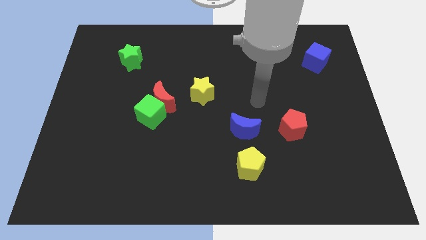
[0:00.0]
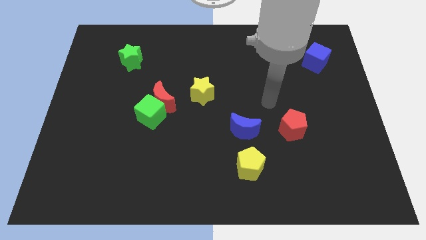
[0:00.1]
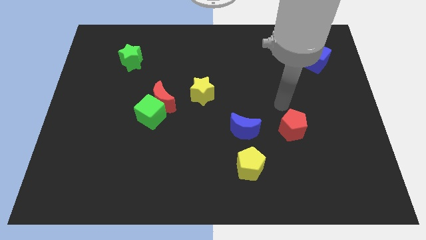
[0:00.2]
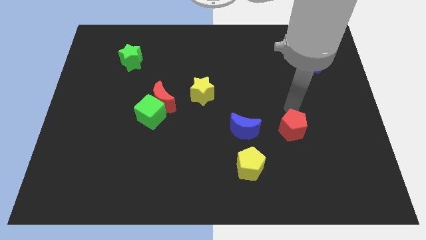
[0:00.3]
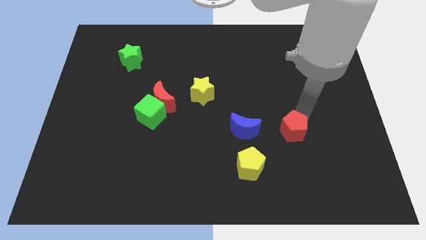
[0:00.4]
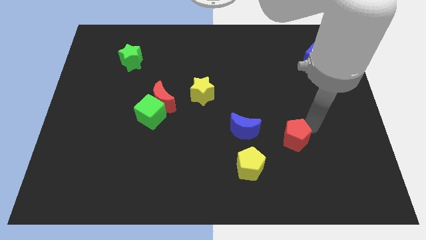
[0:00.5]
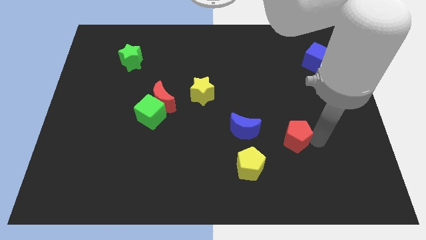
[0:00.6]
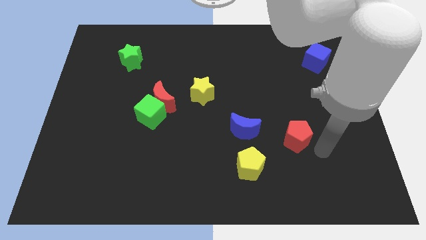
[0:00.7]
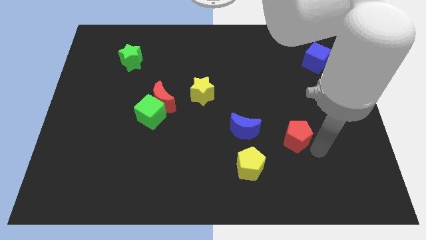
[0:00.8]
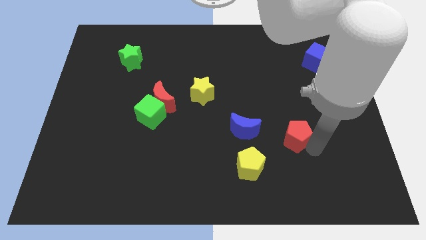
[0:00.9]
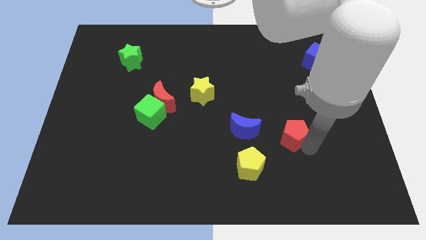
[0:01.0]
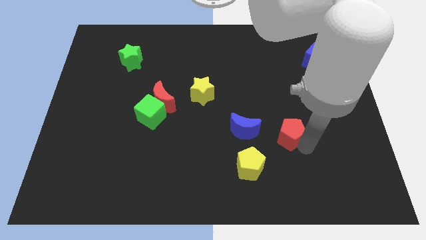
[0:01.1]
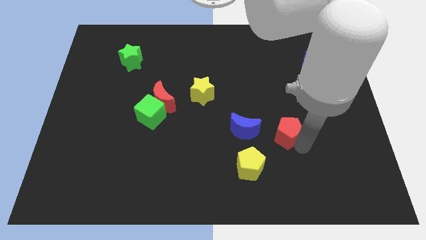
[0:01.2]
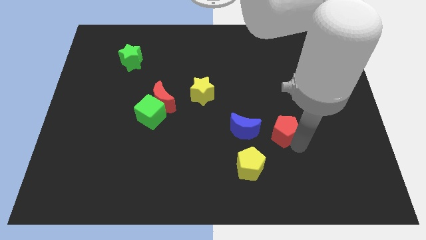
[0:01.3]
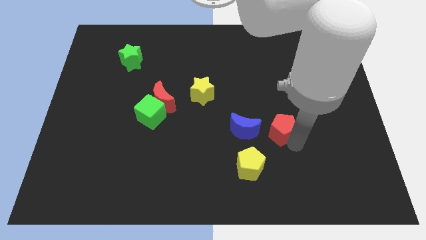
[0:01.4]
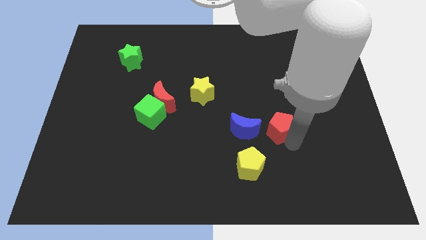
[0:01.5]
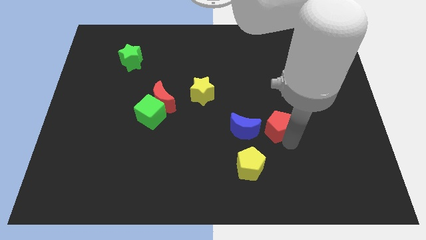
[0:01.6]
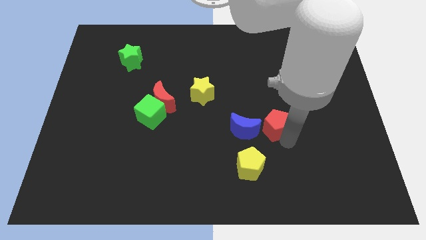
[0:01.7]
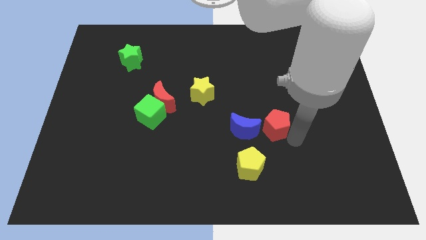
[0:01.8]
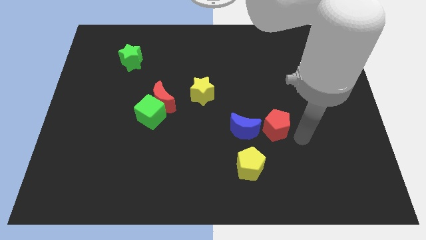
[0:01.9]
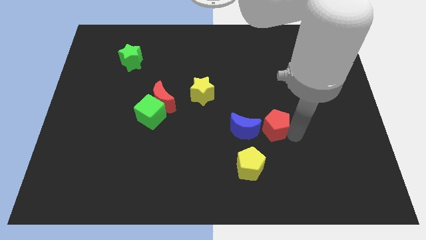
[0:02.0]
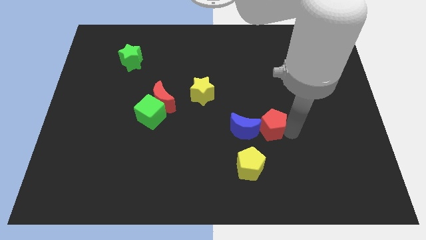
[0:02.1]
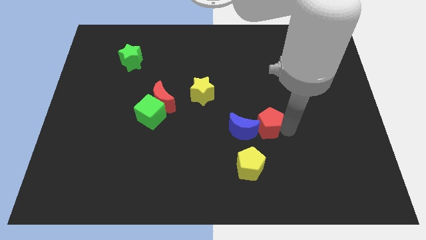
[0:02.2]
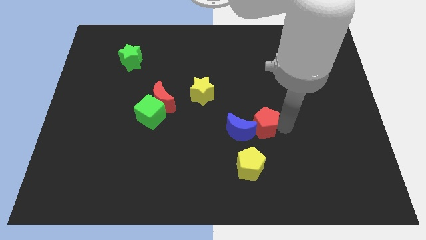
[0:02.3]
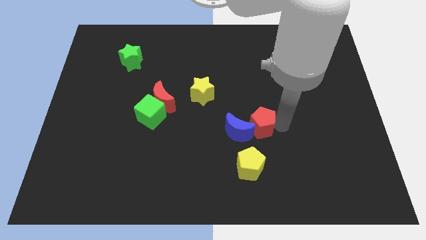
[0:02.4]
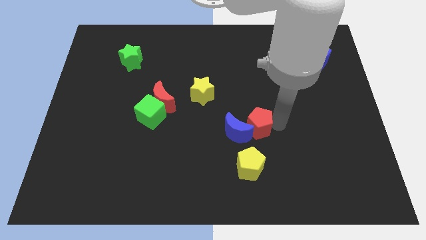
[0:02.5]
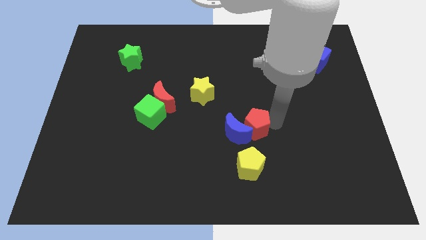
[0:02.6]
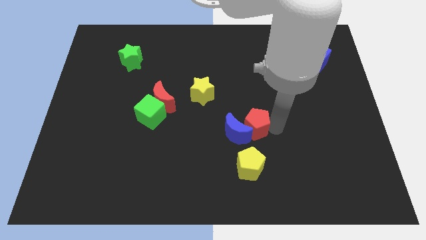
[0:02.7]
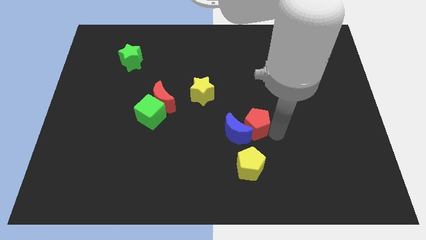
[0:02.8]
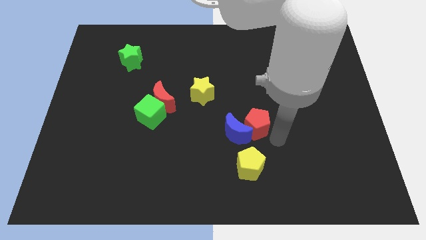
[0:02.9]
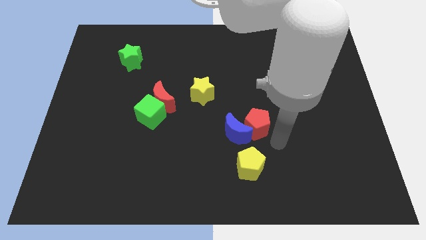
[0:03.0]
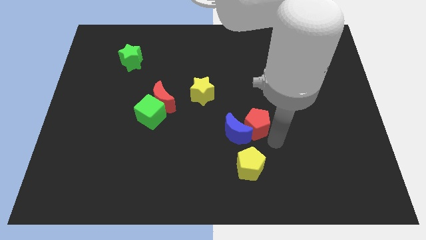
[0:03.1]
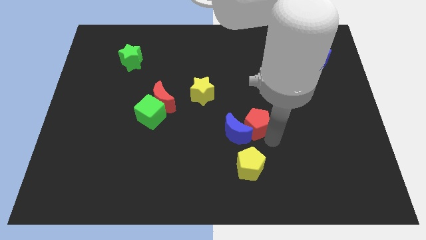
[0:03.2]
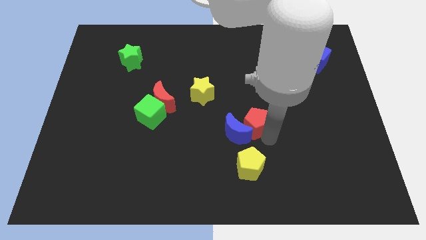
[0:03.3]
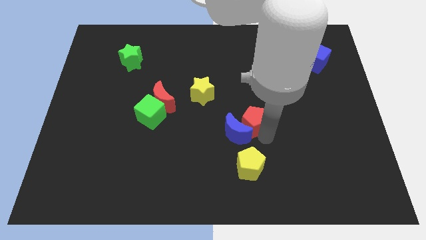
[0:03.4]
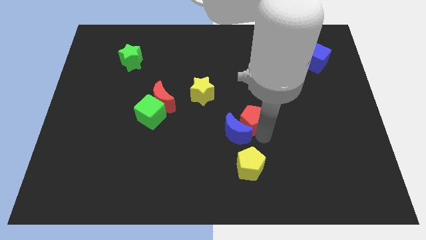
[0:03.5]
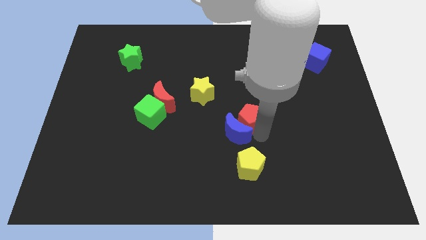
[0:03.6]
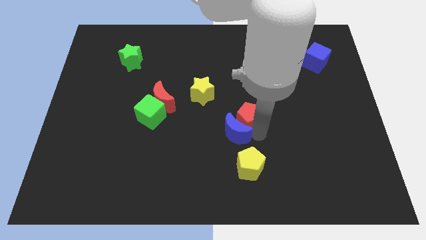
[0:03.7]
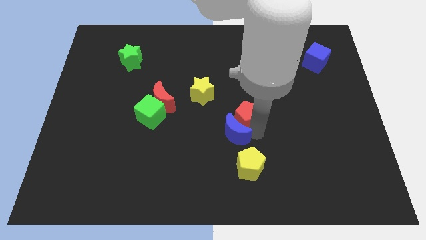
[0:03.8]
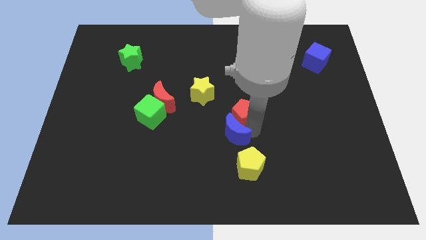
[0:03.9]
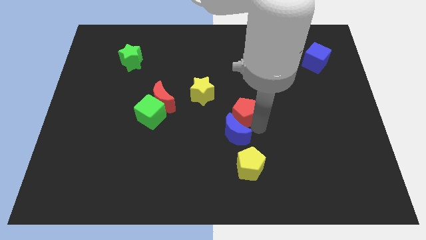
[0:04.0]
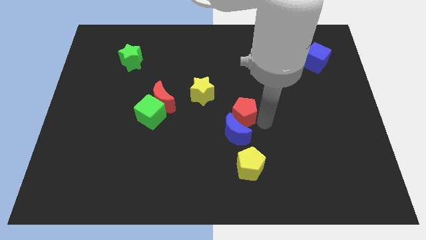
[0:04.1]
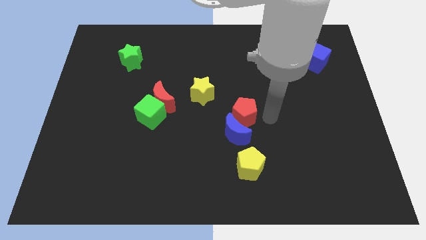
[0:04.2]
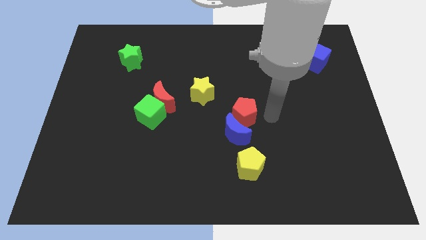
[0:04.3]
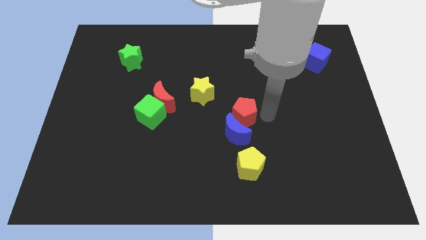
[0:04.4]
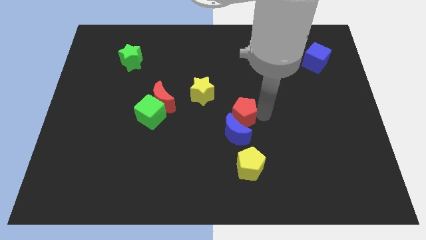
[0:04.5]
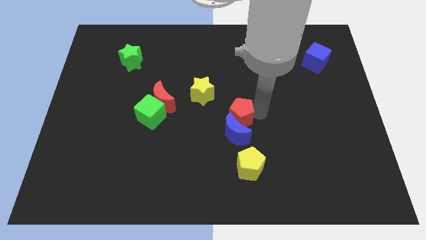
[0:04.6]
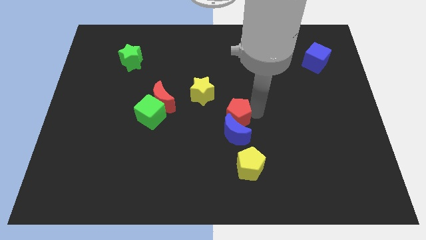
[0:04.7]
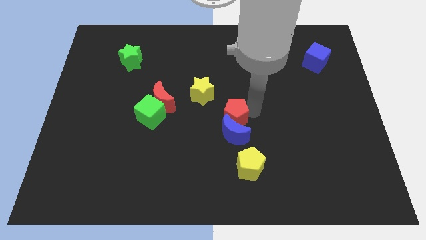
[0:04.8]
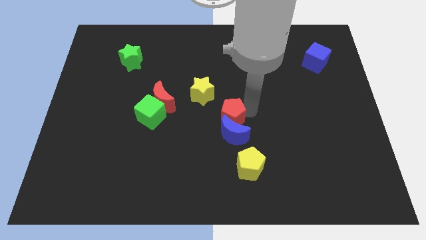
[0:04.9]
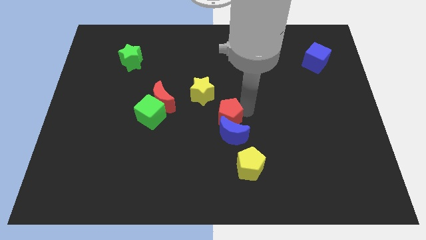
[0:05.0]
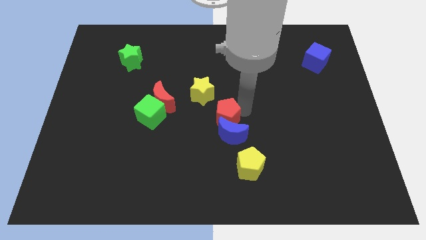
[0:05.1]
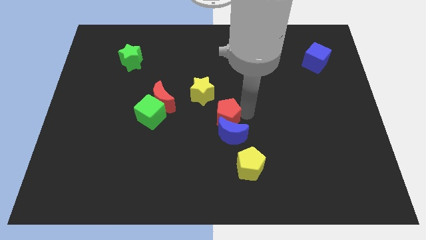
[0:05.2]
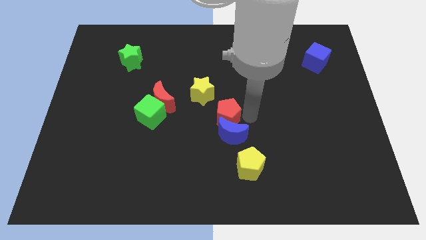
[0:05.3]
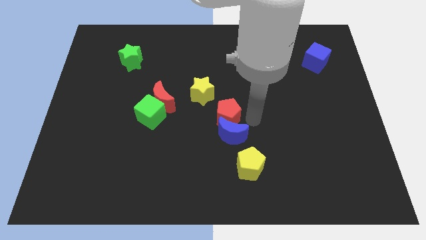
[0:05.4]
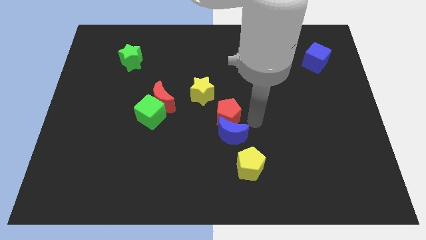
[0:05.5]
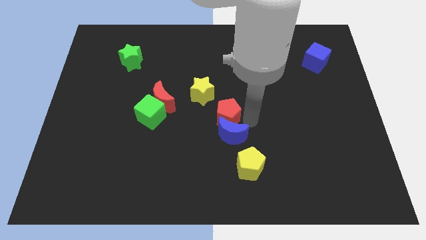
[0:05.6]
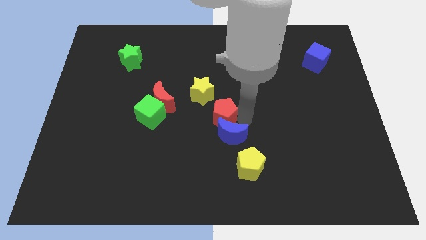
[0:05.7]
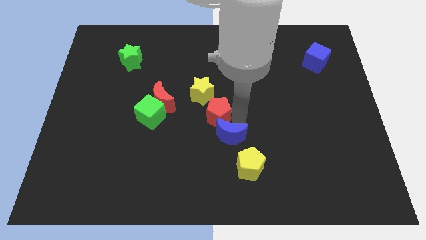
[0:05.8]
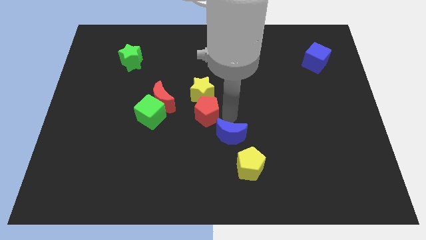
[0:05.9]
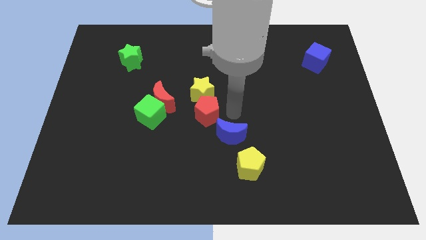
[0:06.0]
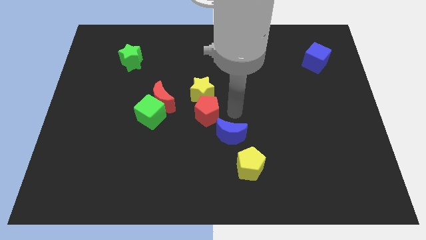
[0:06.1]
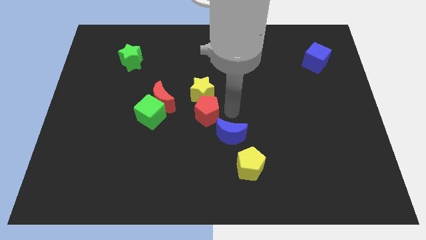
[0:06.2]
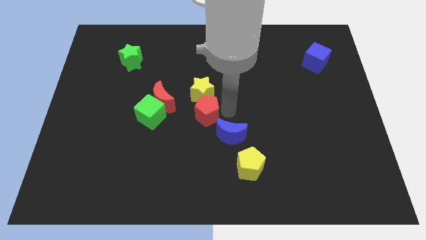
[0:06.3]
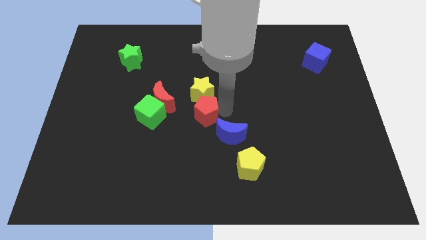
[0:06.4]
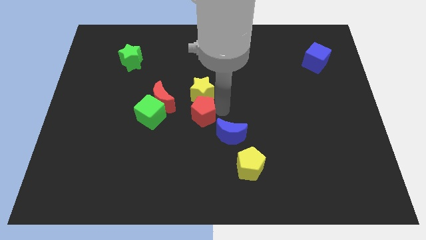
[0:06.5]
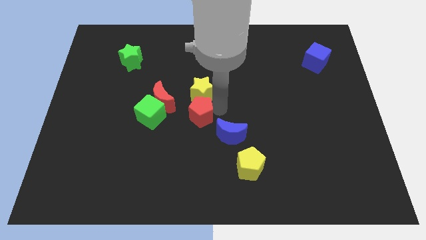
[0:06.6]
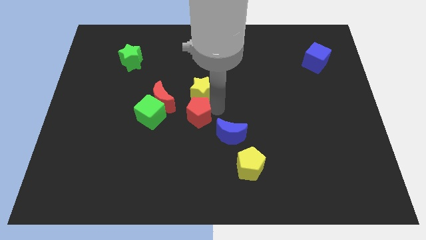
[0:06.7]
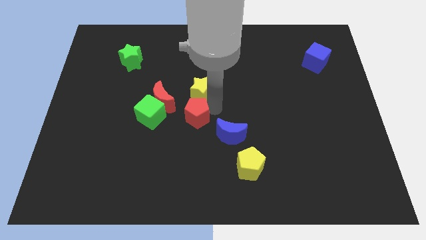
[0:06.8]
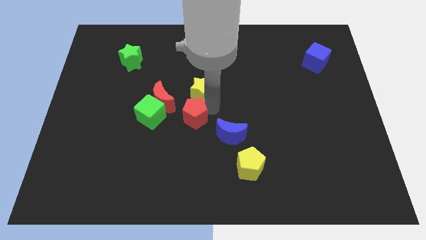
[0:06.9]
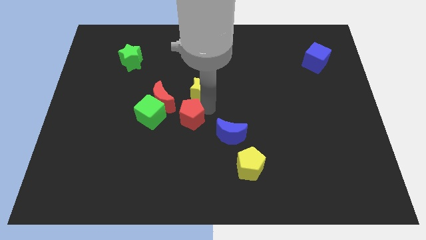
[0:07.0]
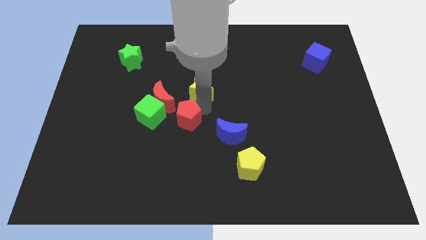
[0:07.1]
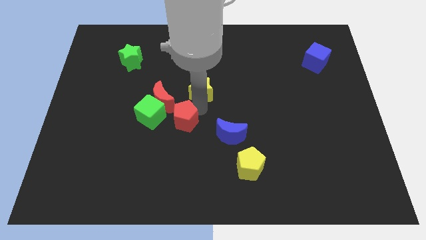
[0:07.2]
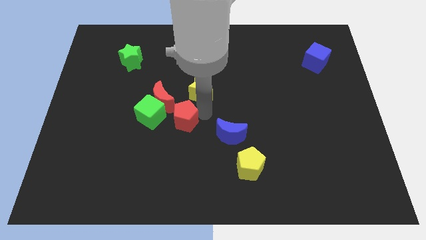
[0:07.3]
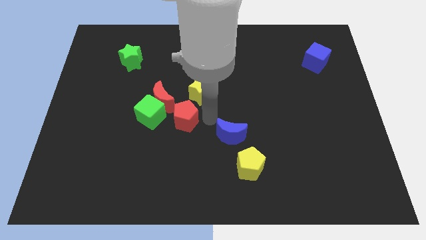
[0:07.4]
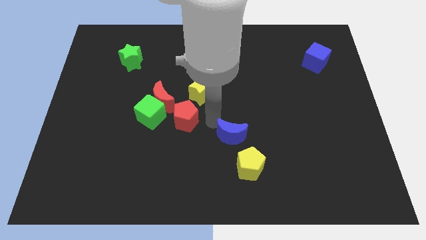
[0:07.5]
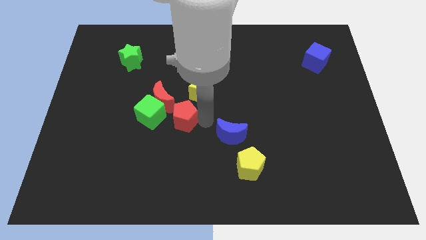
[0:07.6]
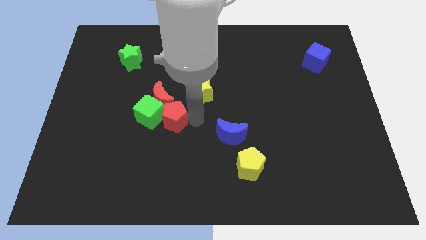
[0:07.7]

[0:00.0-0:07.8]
move the red pentagon close to the green cube
